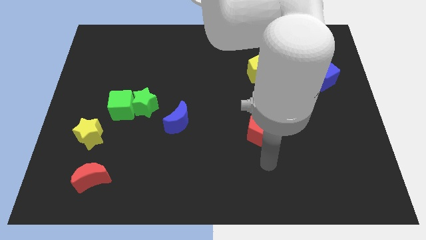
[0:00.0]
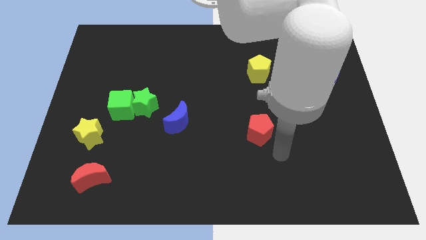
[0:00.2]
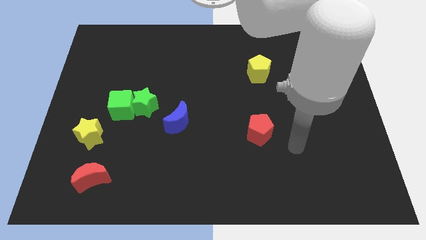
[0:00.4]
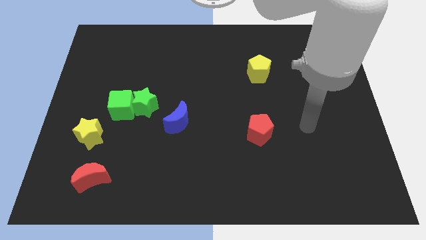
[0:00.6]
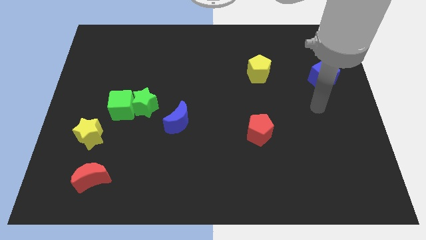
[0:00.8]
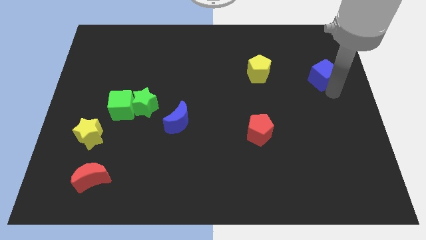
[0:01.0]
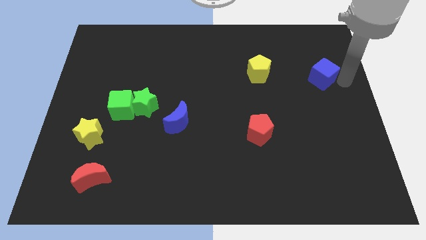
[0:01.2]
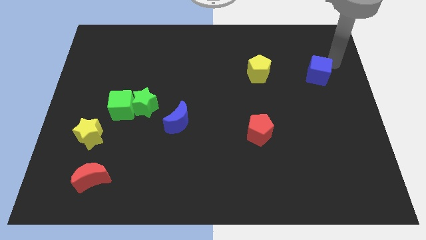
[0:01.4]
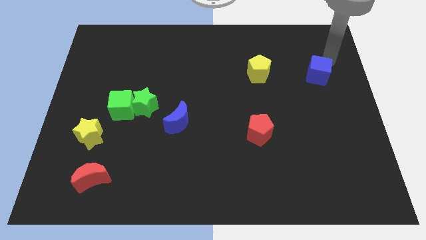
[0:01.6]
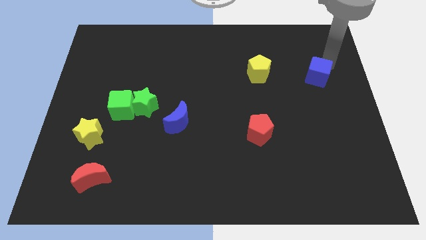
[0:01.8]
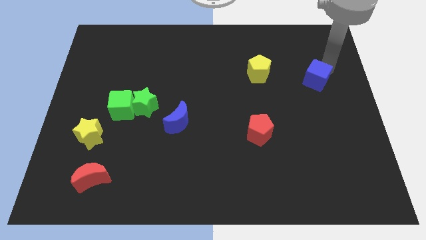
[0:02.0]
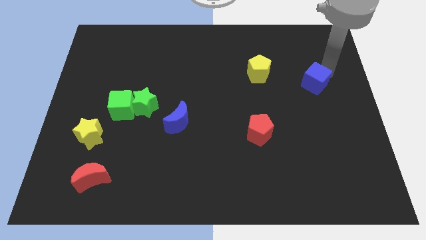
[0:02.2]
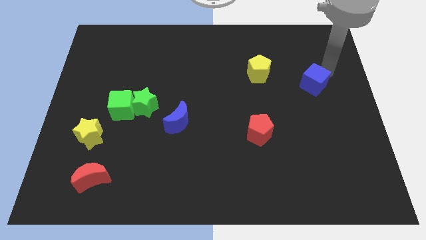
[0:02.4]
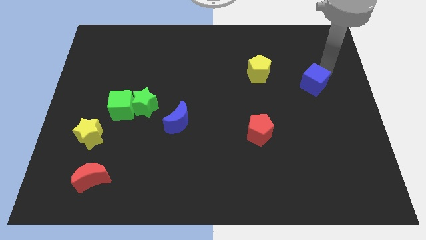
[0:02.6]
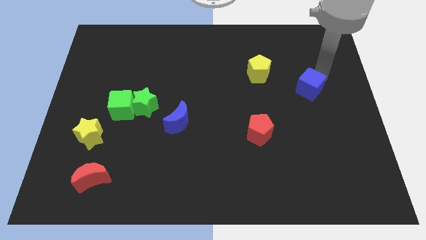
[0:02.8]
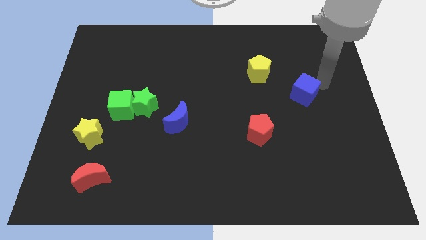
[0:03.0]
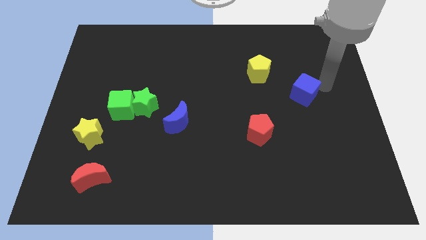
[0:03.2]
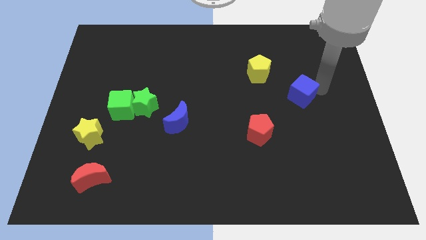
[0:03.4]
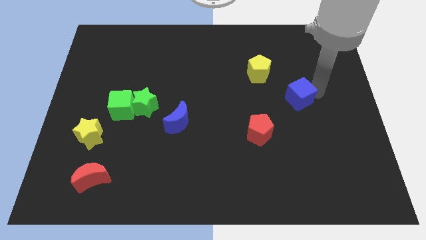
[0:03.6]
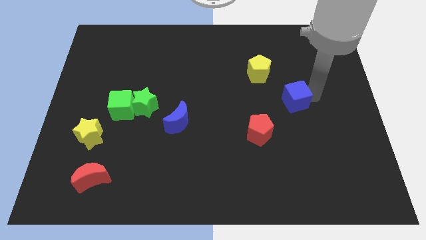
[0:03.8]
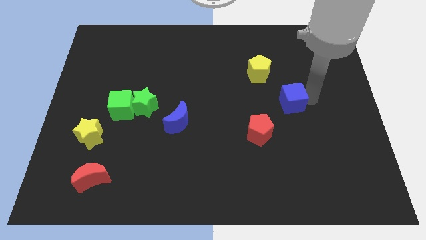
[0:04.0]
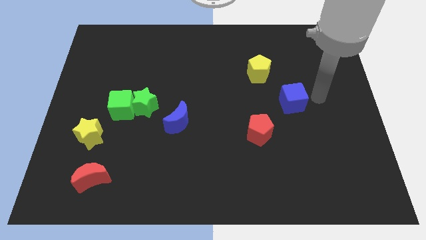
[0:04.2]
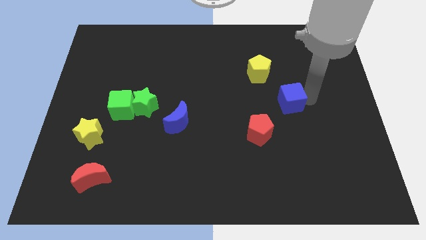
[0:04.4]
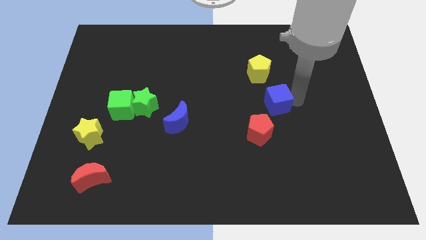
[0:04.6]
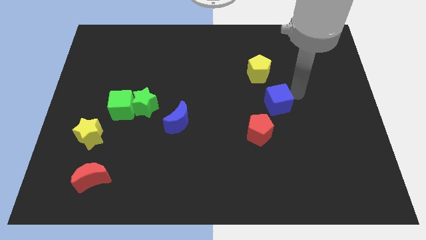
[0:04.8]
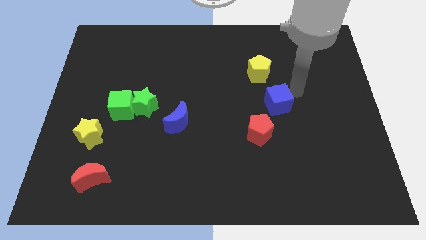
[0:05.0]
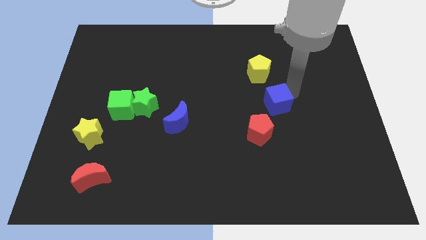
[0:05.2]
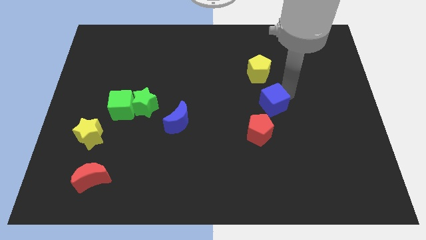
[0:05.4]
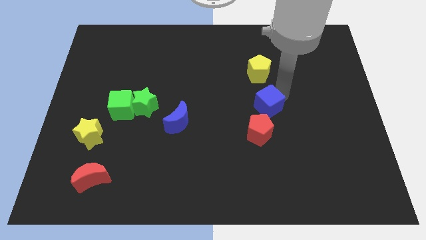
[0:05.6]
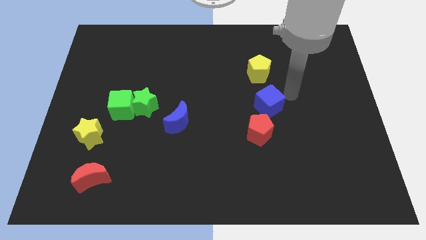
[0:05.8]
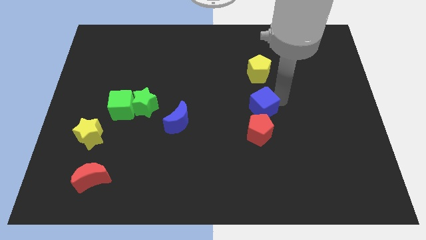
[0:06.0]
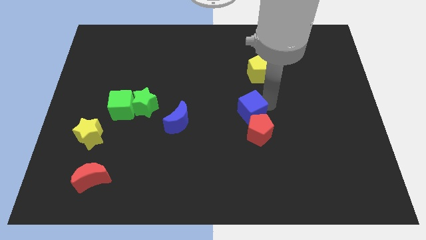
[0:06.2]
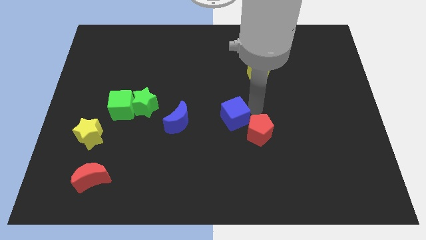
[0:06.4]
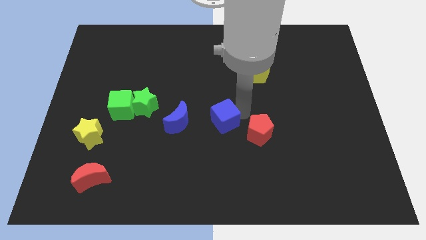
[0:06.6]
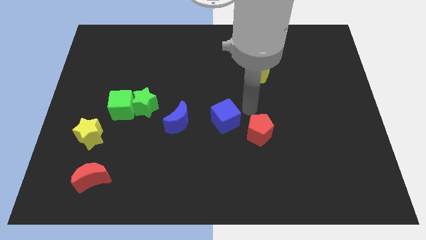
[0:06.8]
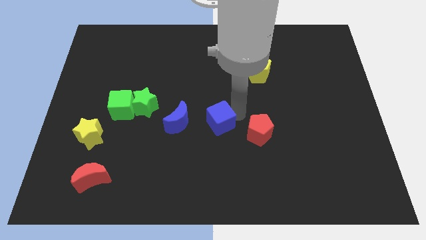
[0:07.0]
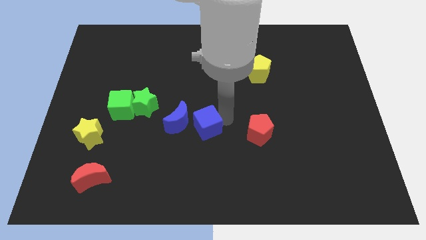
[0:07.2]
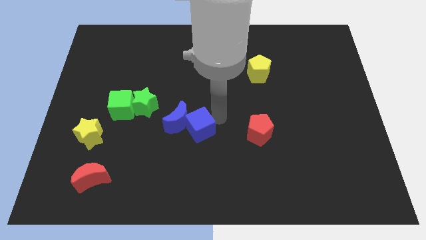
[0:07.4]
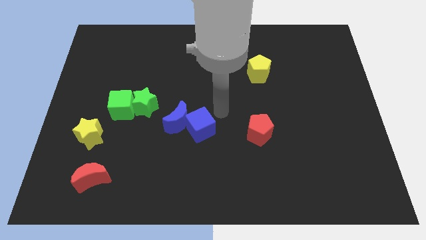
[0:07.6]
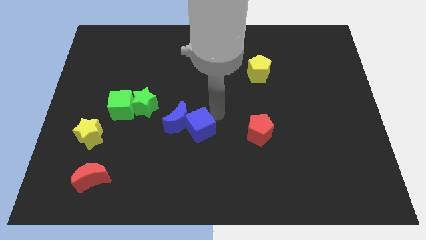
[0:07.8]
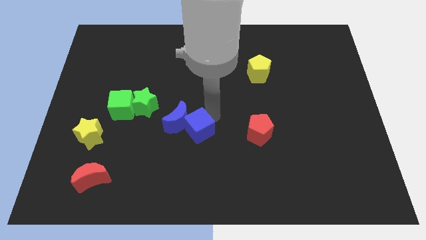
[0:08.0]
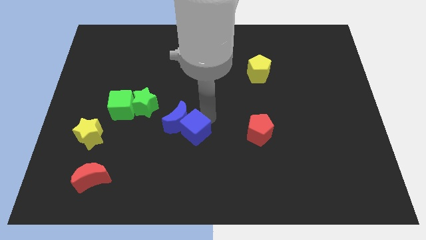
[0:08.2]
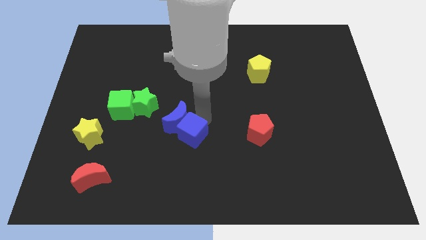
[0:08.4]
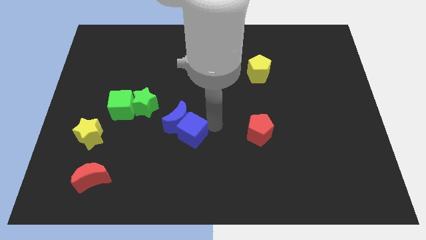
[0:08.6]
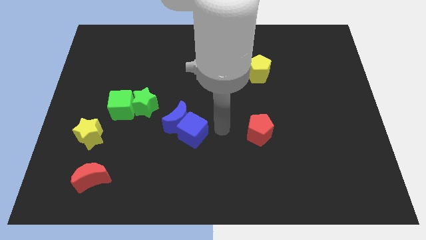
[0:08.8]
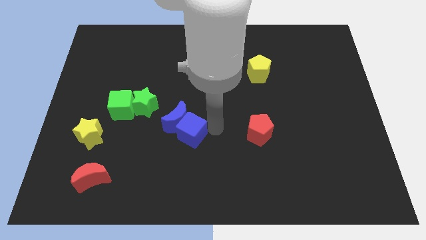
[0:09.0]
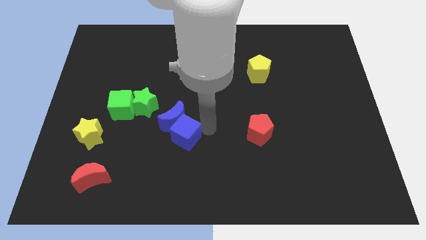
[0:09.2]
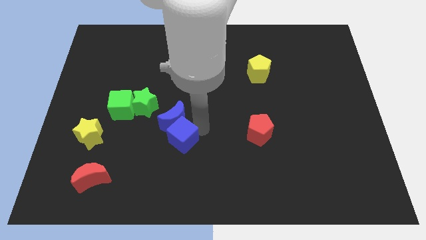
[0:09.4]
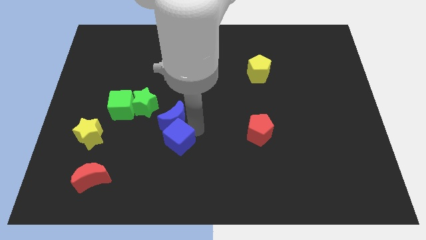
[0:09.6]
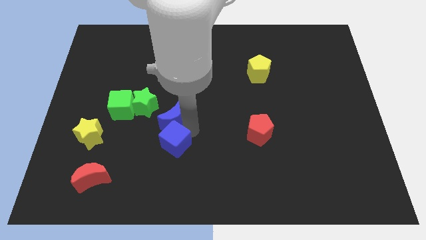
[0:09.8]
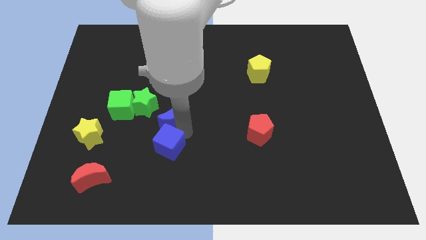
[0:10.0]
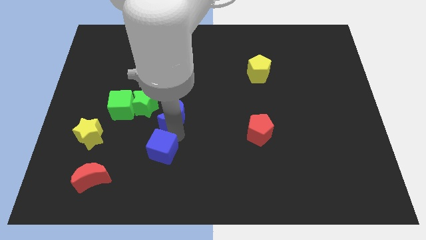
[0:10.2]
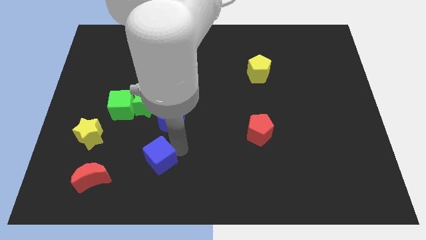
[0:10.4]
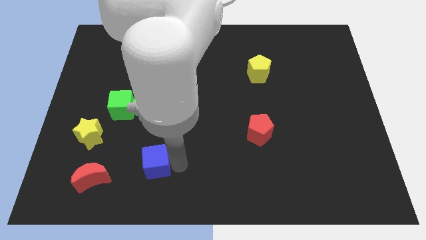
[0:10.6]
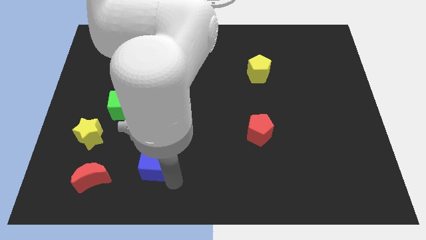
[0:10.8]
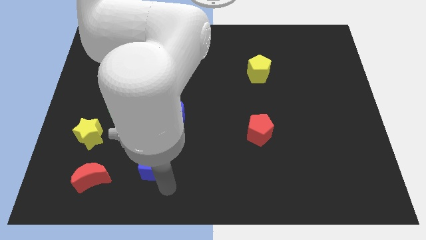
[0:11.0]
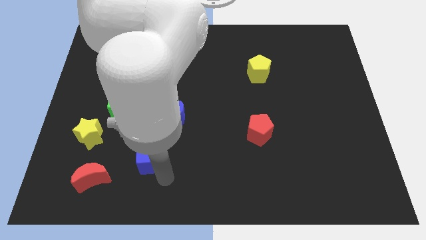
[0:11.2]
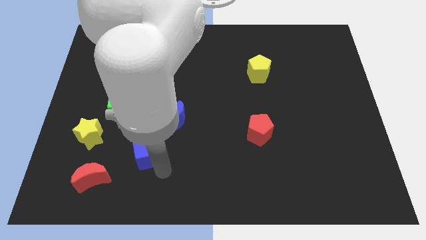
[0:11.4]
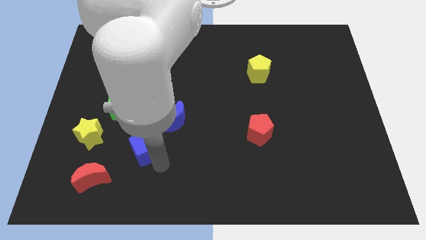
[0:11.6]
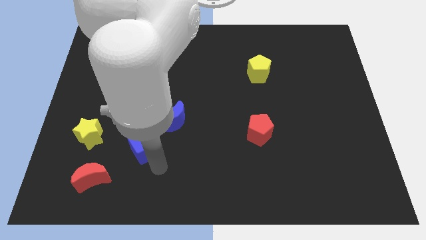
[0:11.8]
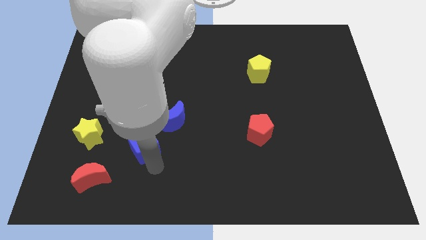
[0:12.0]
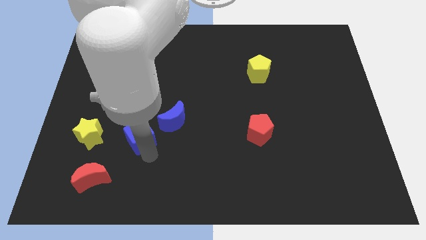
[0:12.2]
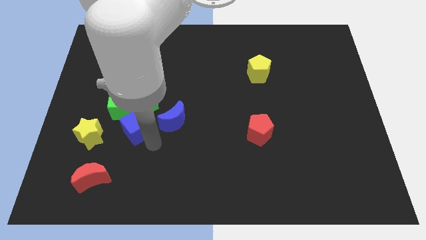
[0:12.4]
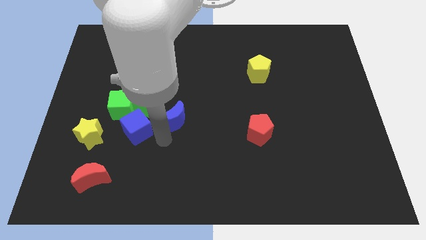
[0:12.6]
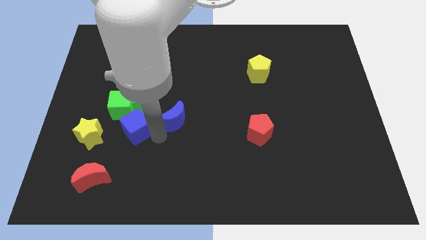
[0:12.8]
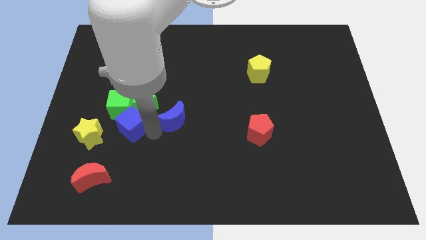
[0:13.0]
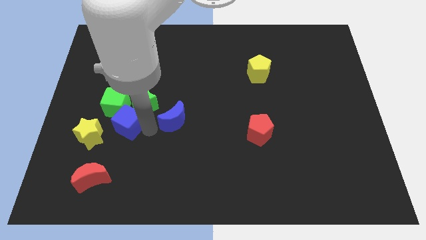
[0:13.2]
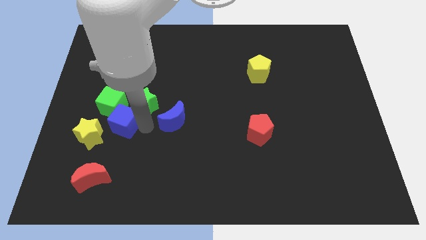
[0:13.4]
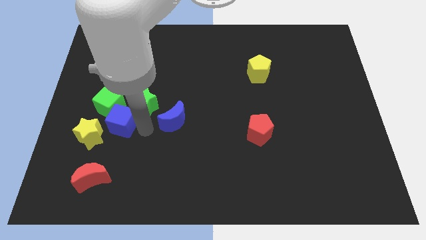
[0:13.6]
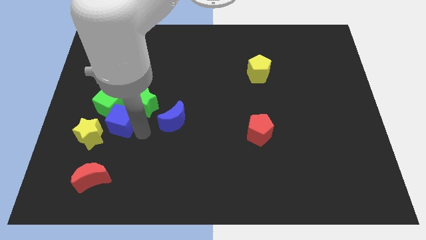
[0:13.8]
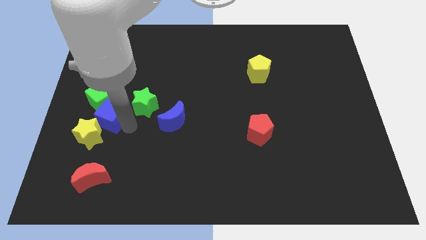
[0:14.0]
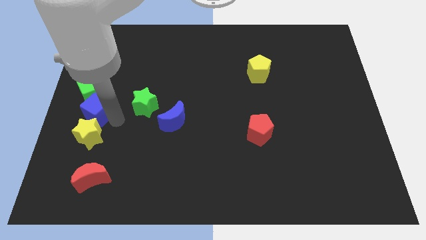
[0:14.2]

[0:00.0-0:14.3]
slide the blue cube to the left side
